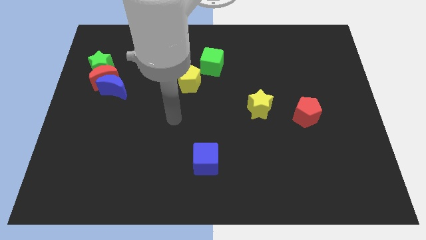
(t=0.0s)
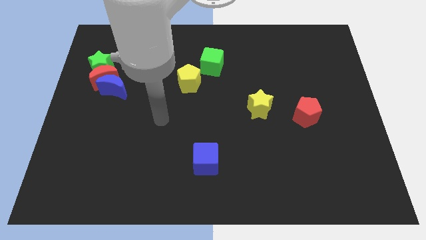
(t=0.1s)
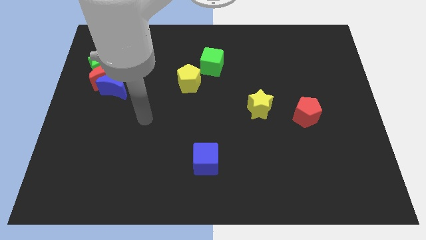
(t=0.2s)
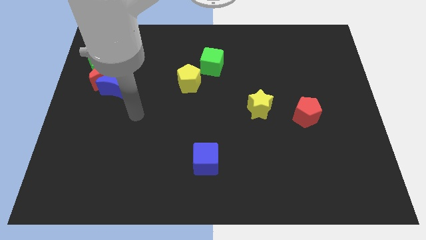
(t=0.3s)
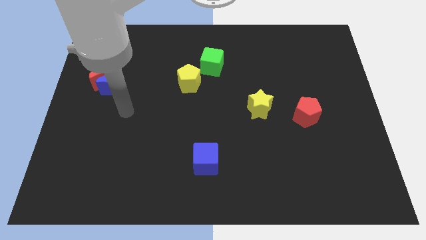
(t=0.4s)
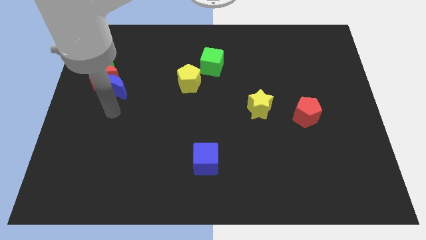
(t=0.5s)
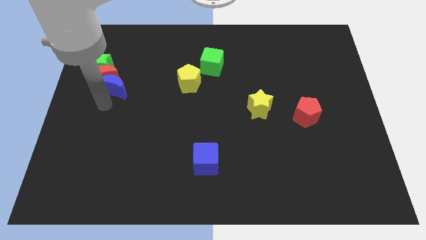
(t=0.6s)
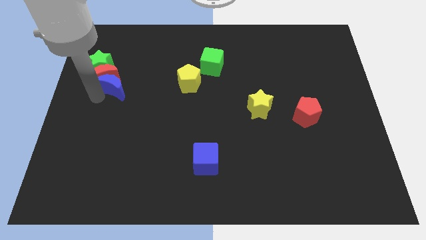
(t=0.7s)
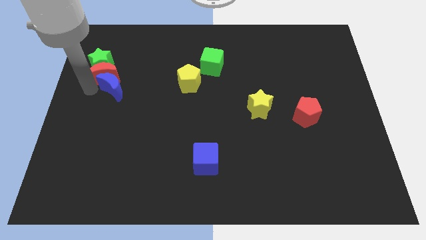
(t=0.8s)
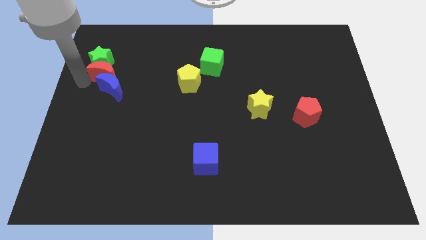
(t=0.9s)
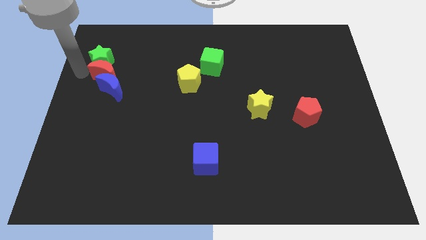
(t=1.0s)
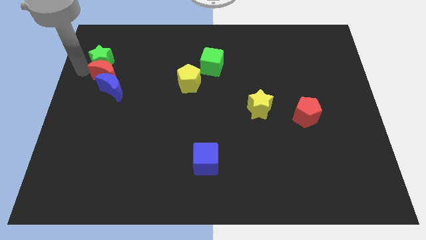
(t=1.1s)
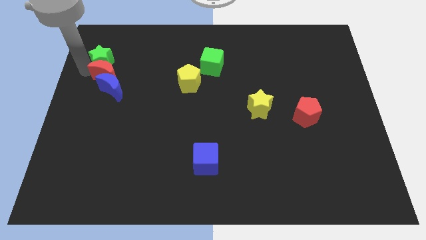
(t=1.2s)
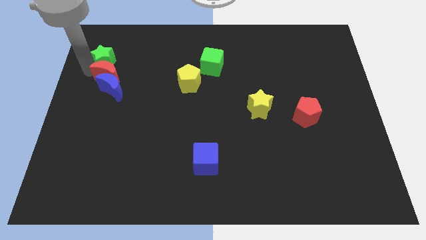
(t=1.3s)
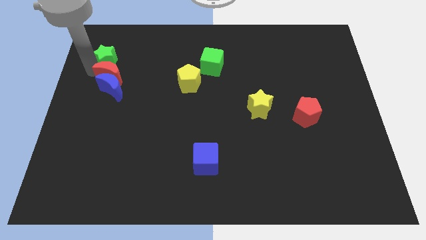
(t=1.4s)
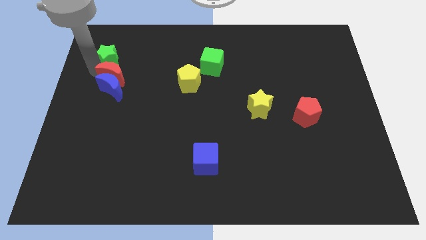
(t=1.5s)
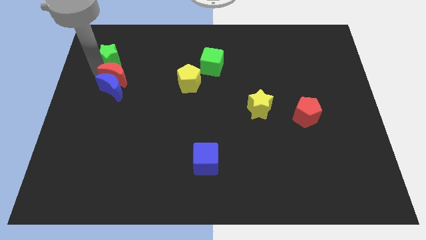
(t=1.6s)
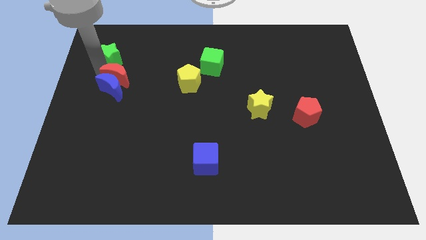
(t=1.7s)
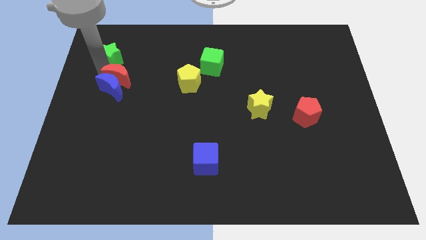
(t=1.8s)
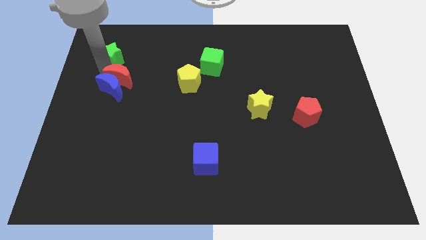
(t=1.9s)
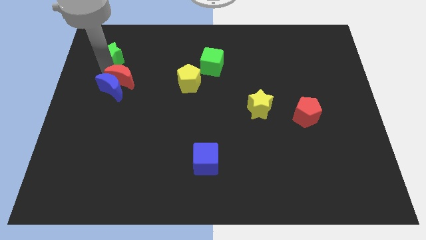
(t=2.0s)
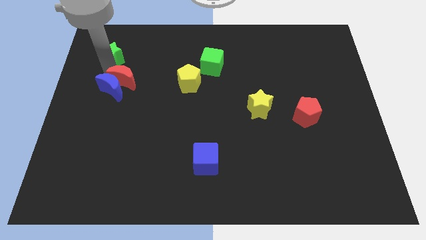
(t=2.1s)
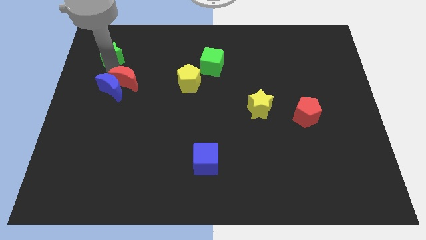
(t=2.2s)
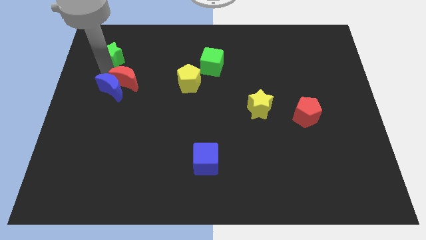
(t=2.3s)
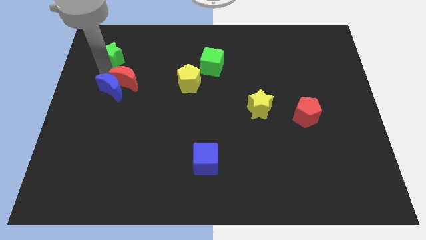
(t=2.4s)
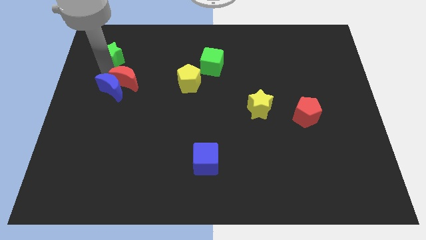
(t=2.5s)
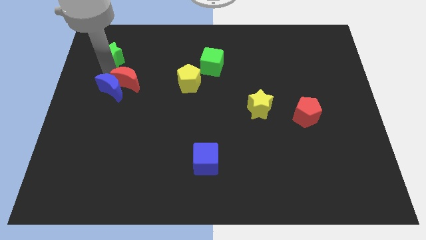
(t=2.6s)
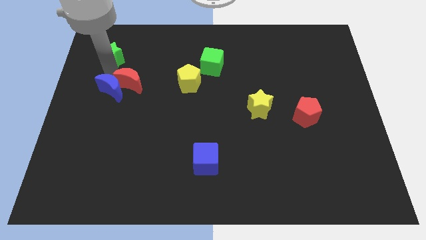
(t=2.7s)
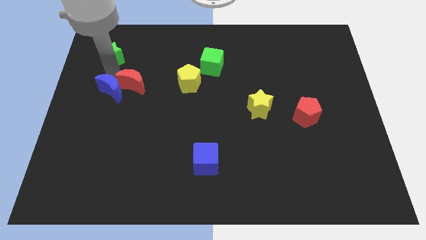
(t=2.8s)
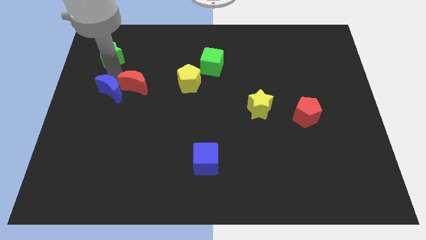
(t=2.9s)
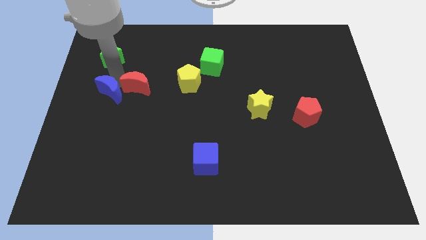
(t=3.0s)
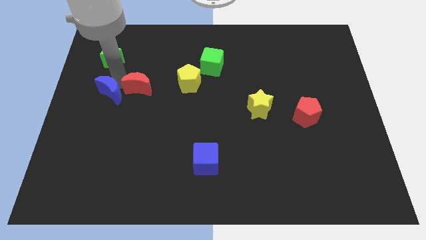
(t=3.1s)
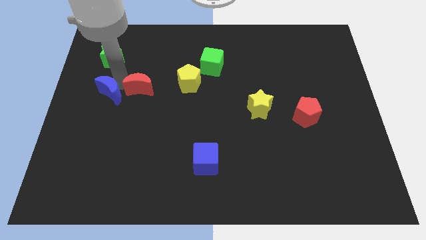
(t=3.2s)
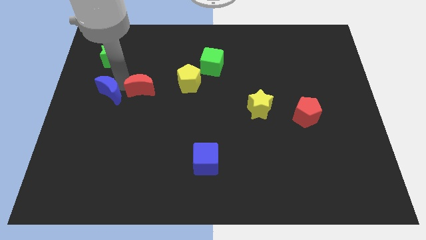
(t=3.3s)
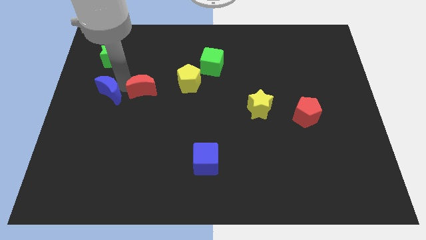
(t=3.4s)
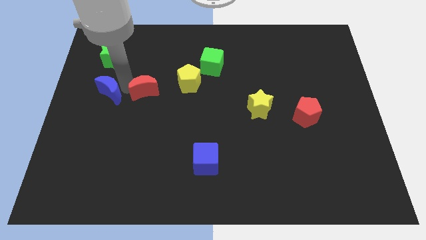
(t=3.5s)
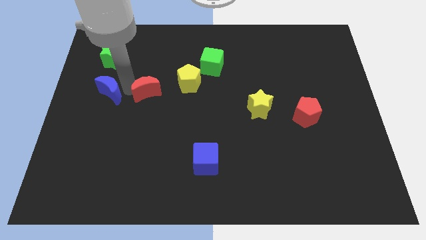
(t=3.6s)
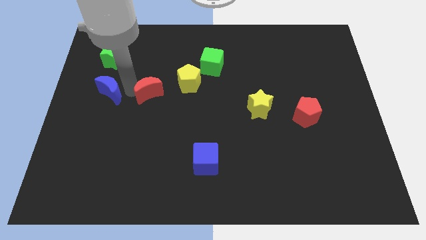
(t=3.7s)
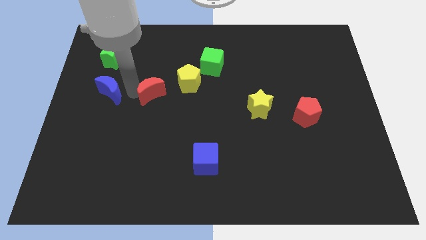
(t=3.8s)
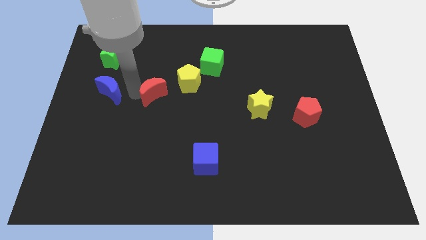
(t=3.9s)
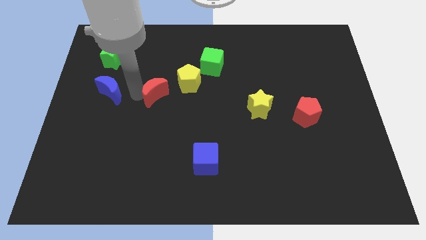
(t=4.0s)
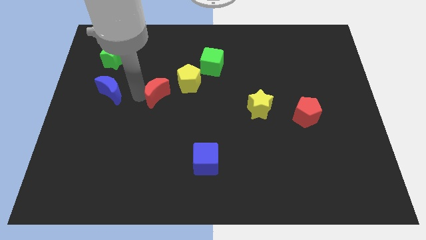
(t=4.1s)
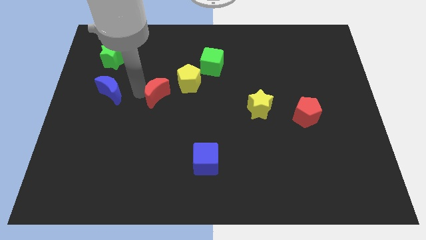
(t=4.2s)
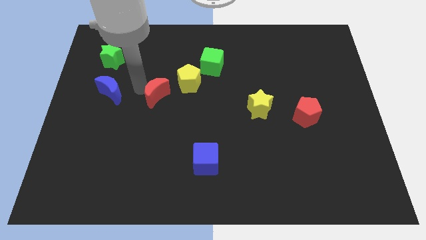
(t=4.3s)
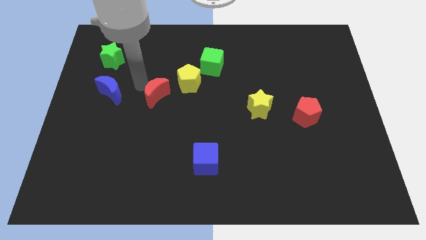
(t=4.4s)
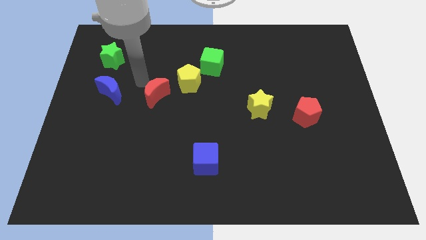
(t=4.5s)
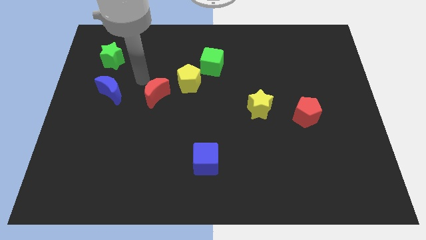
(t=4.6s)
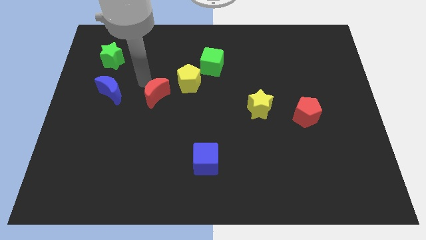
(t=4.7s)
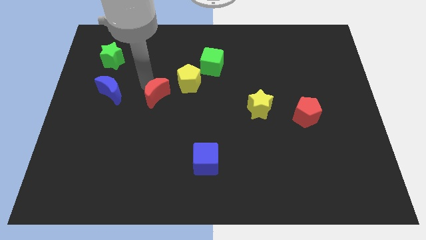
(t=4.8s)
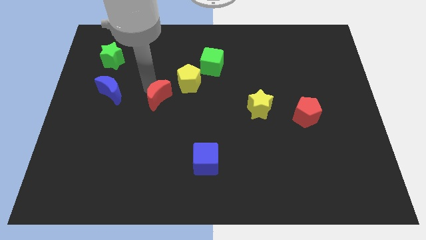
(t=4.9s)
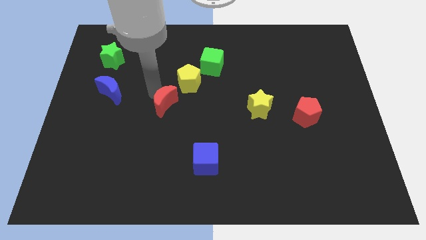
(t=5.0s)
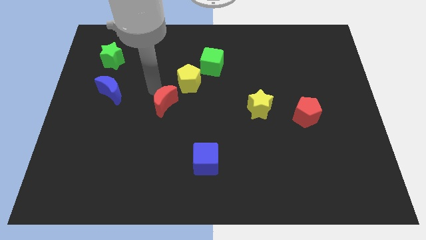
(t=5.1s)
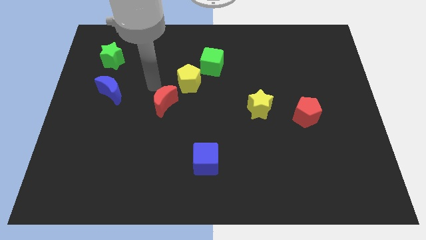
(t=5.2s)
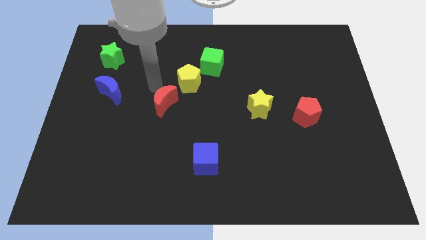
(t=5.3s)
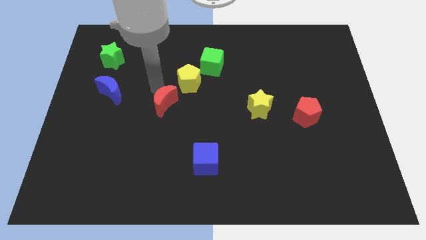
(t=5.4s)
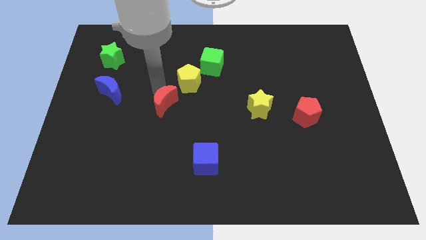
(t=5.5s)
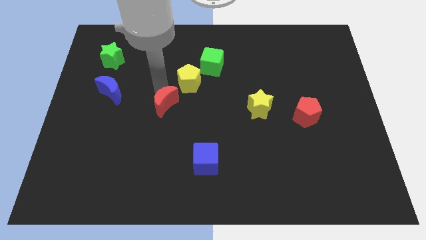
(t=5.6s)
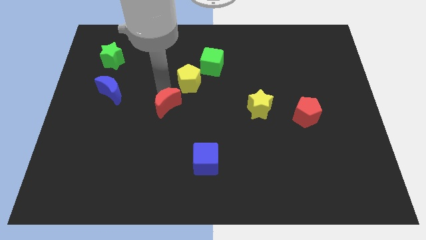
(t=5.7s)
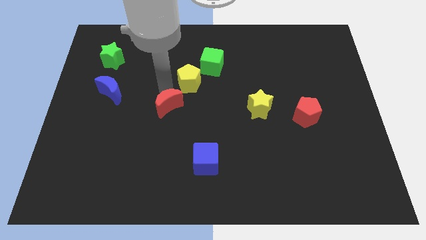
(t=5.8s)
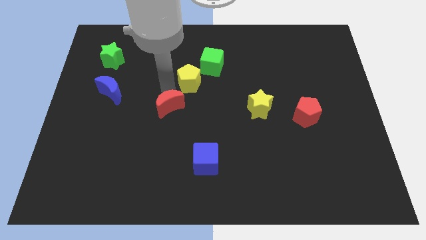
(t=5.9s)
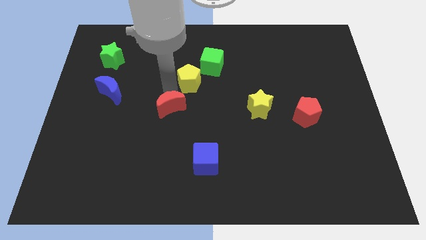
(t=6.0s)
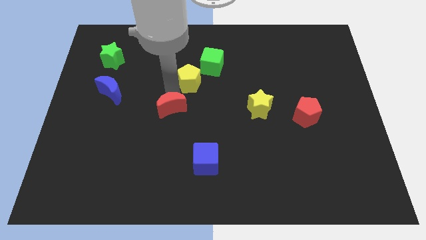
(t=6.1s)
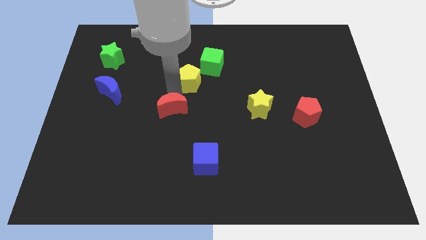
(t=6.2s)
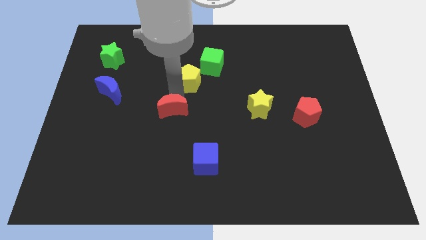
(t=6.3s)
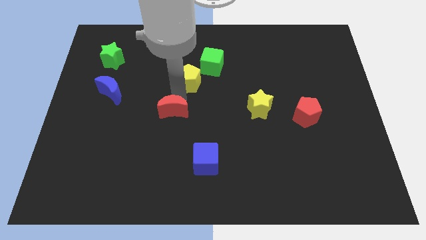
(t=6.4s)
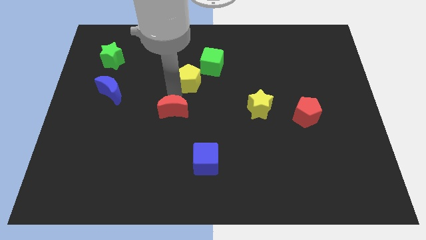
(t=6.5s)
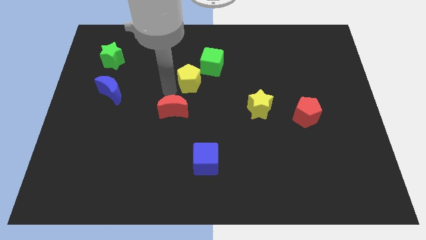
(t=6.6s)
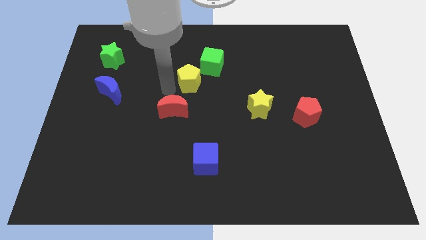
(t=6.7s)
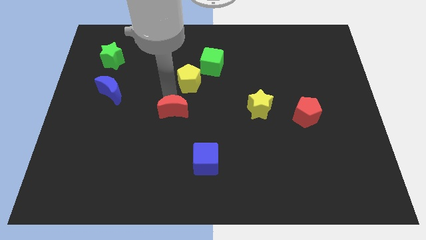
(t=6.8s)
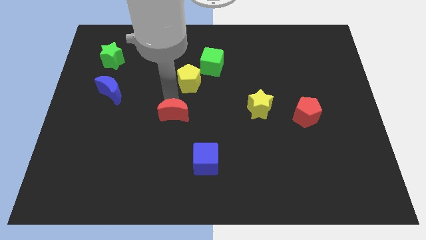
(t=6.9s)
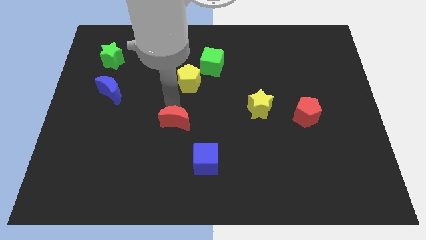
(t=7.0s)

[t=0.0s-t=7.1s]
slide the red moon diagonally up and to the left of the blue cube
